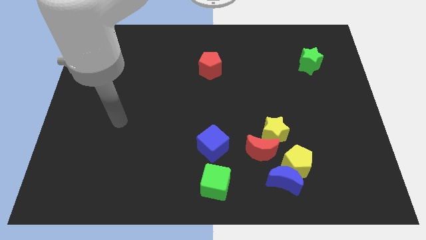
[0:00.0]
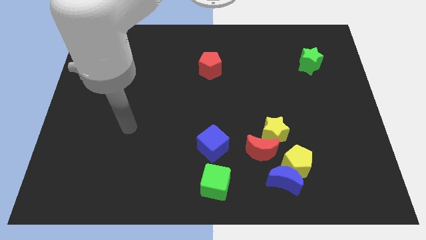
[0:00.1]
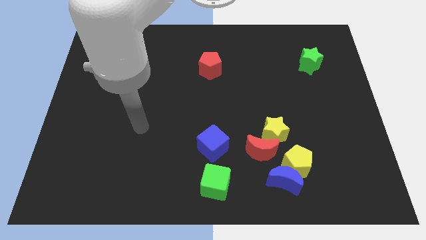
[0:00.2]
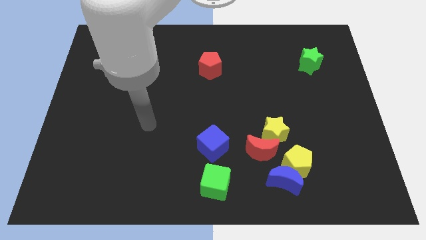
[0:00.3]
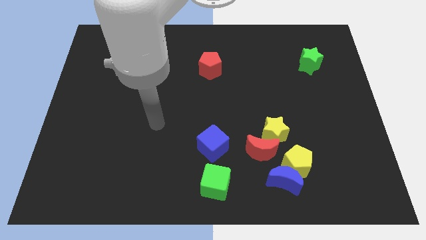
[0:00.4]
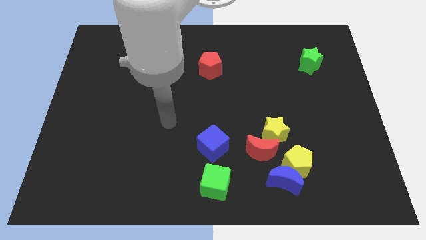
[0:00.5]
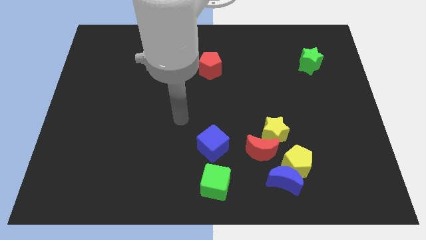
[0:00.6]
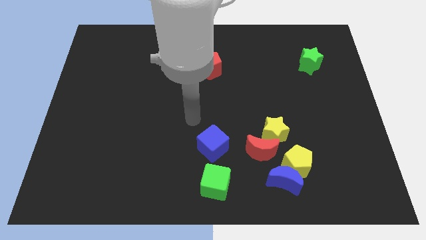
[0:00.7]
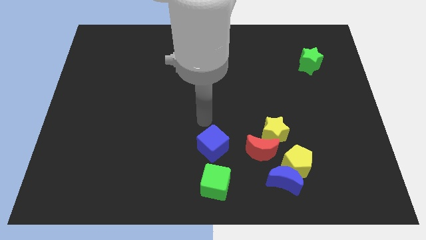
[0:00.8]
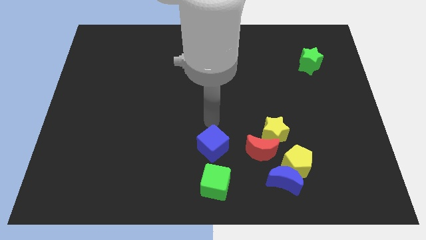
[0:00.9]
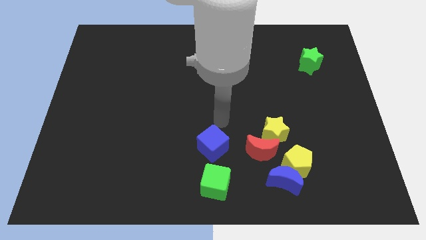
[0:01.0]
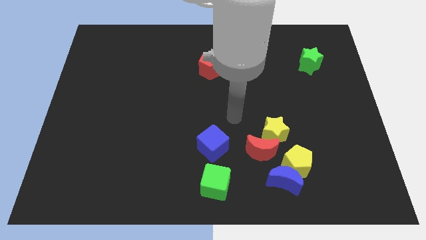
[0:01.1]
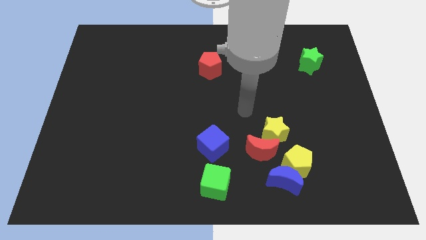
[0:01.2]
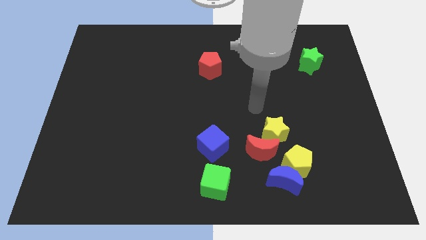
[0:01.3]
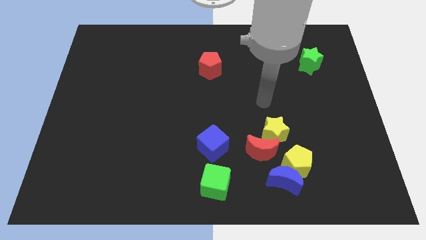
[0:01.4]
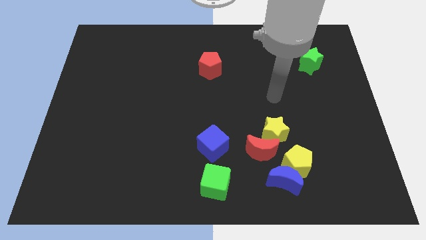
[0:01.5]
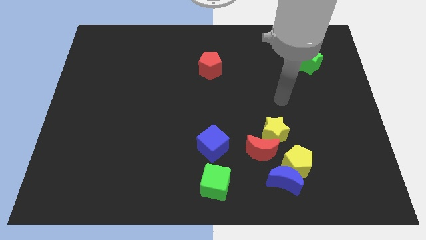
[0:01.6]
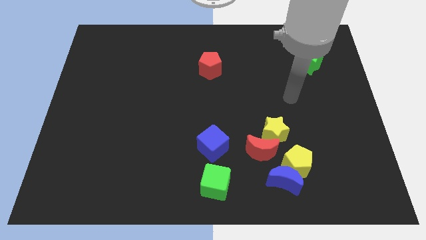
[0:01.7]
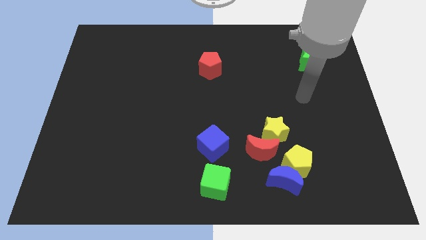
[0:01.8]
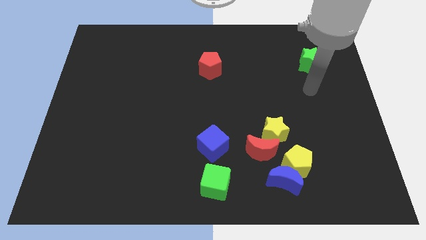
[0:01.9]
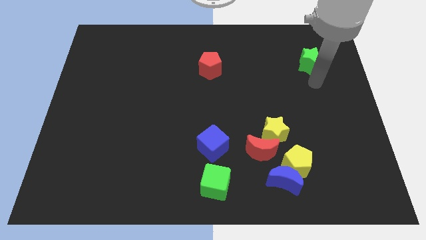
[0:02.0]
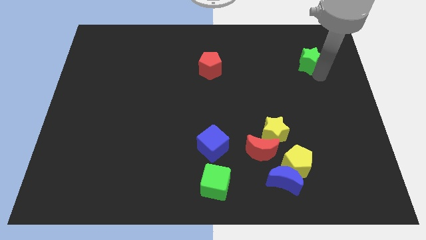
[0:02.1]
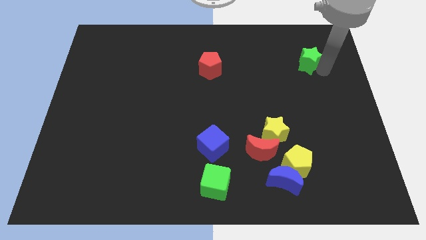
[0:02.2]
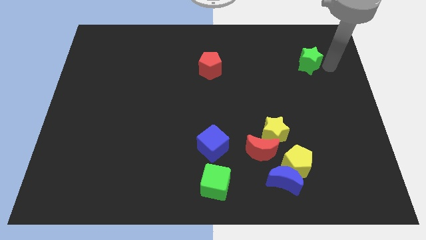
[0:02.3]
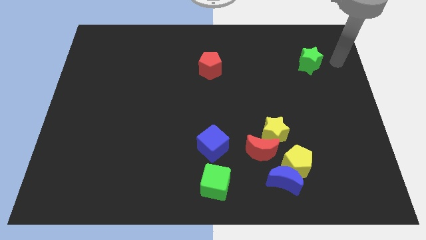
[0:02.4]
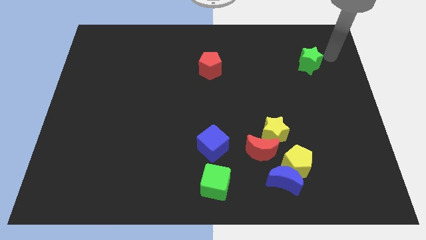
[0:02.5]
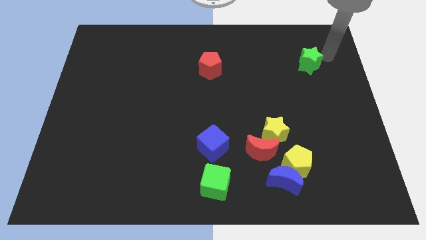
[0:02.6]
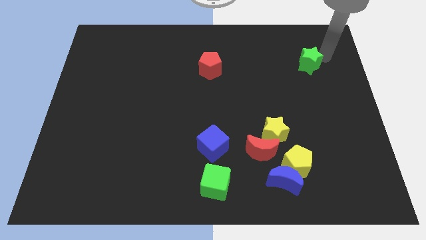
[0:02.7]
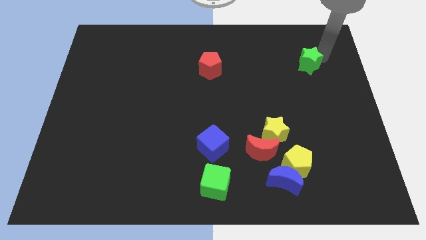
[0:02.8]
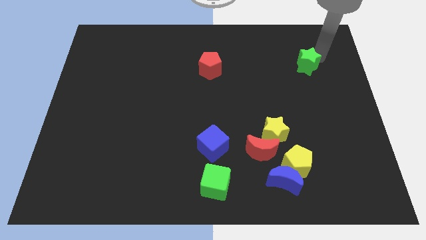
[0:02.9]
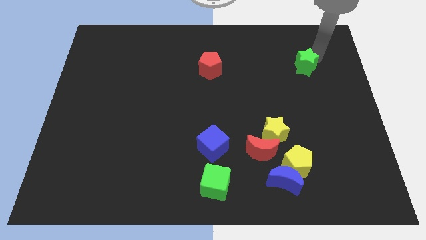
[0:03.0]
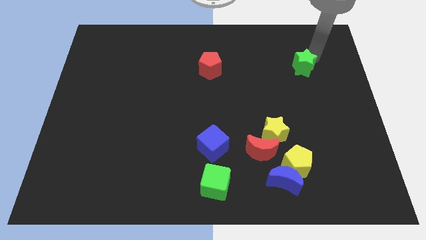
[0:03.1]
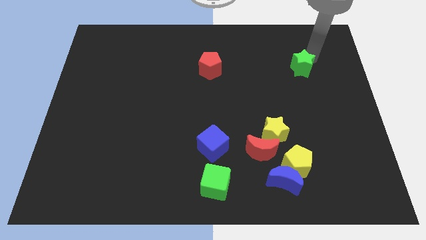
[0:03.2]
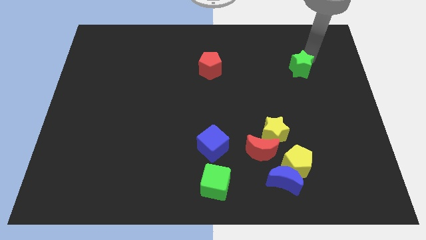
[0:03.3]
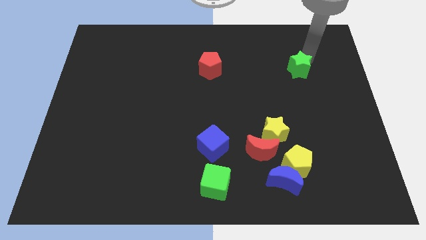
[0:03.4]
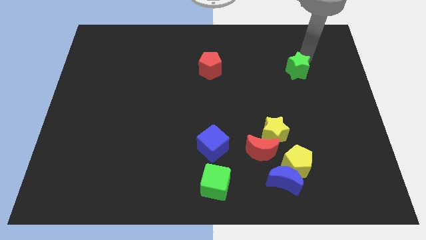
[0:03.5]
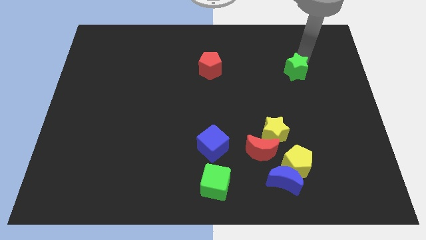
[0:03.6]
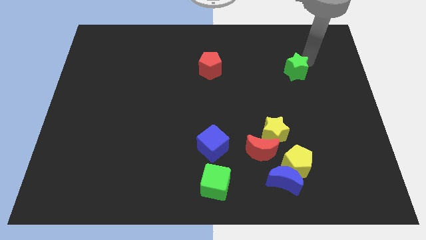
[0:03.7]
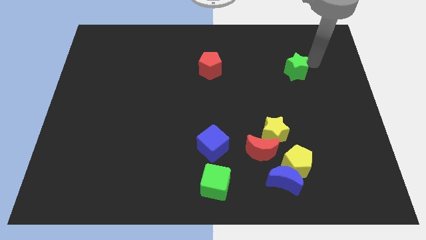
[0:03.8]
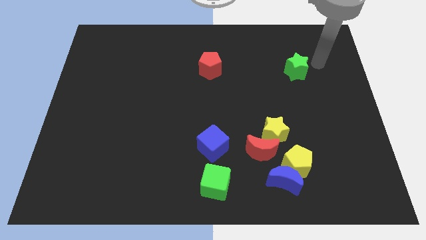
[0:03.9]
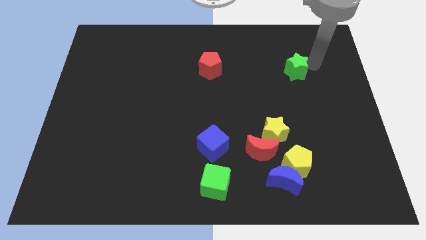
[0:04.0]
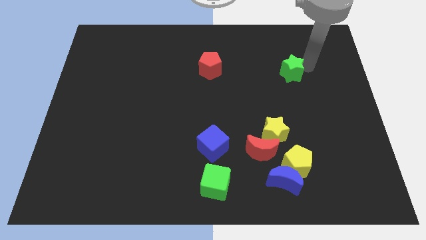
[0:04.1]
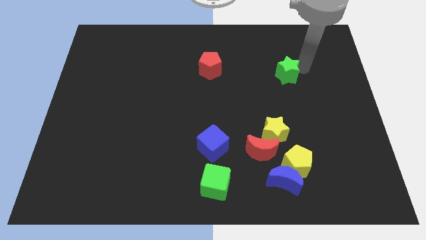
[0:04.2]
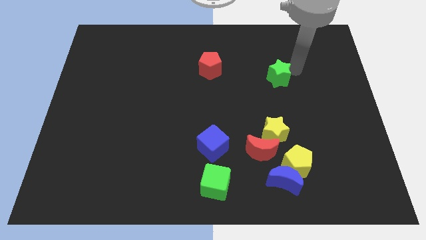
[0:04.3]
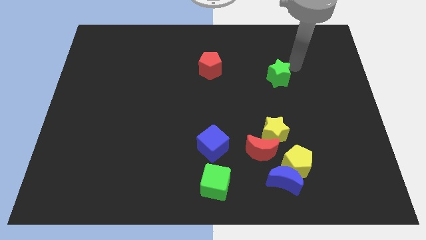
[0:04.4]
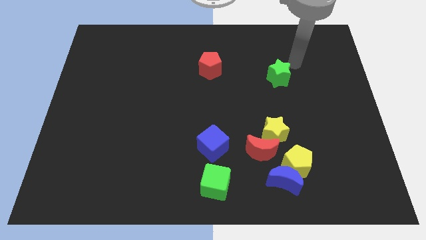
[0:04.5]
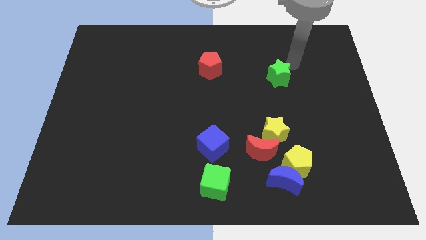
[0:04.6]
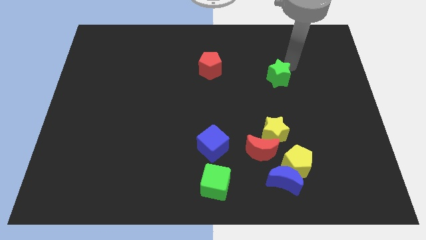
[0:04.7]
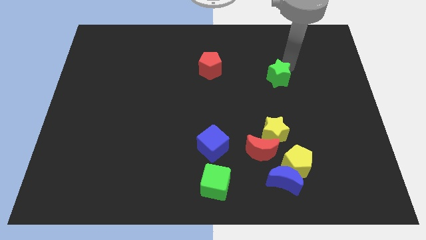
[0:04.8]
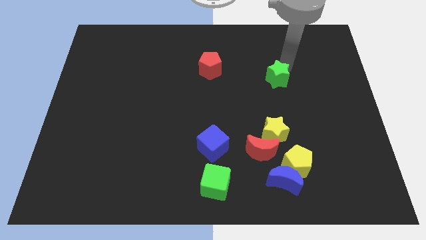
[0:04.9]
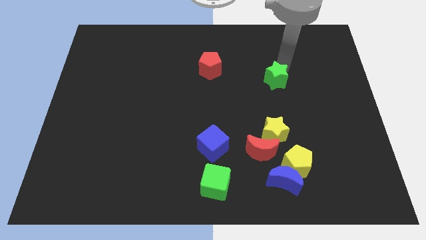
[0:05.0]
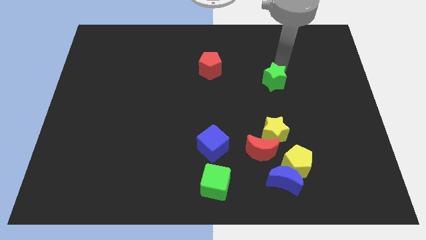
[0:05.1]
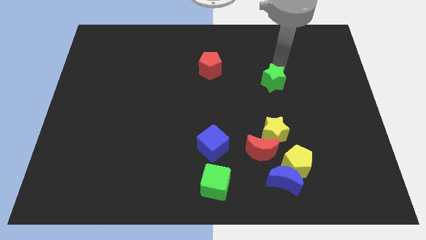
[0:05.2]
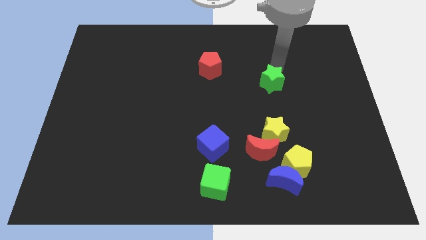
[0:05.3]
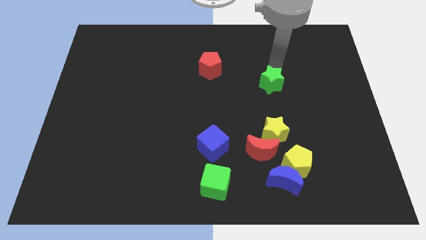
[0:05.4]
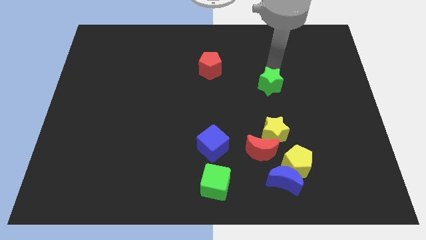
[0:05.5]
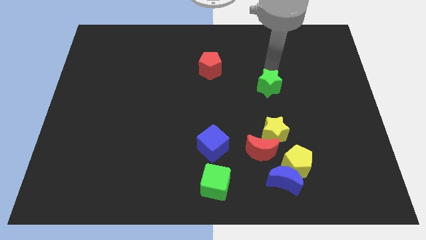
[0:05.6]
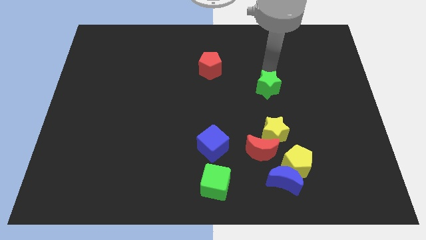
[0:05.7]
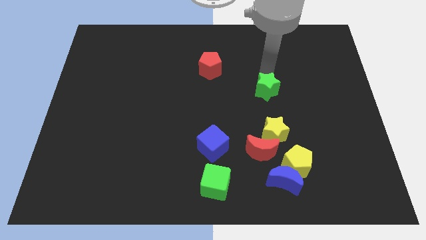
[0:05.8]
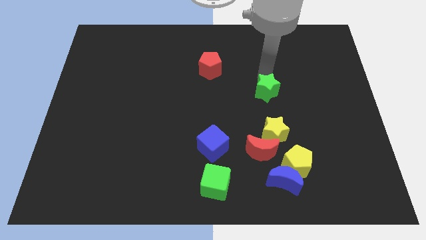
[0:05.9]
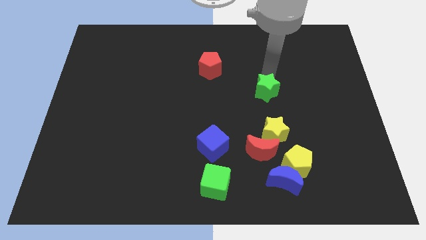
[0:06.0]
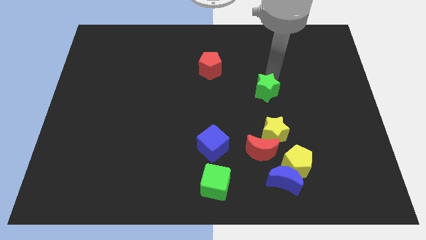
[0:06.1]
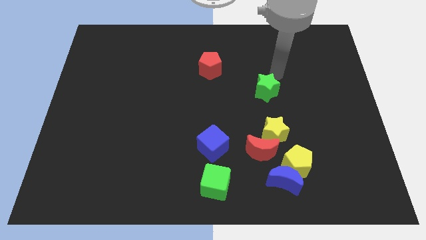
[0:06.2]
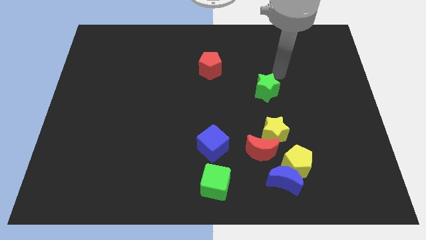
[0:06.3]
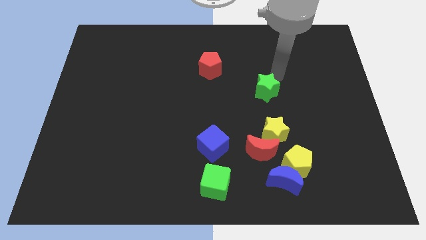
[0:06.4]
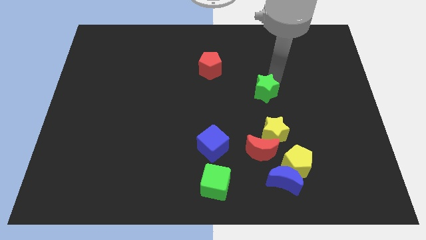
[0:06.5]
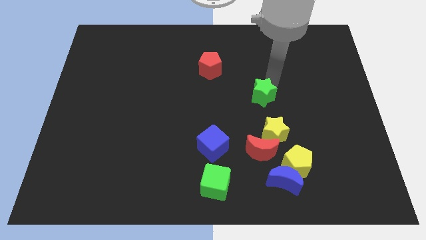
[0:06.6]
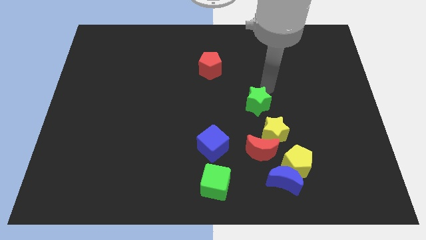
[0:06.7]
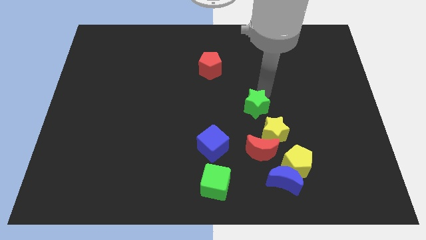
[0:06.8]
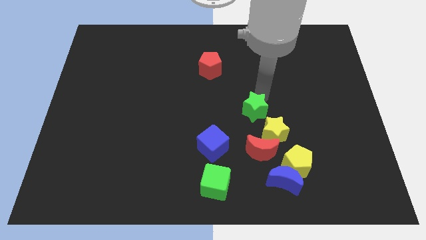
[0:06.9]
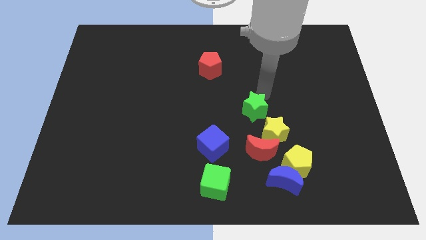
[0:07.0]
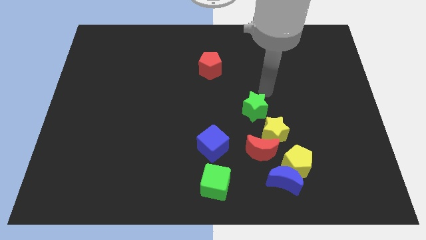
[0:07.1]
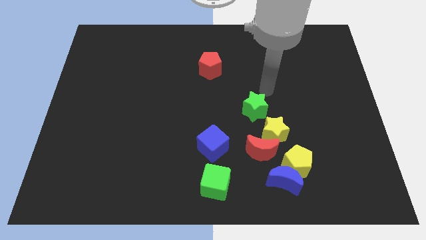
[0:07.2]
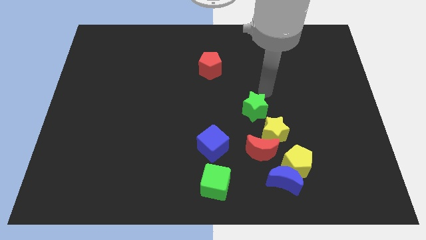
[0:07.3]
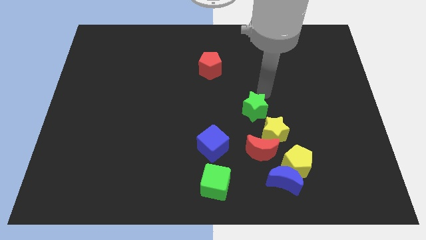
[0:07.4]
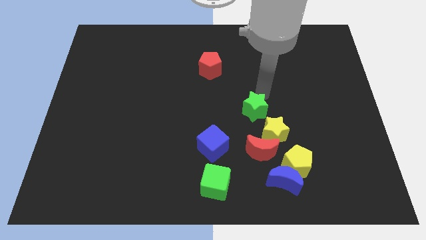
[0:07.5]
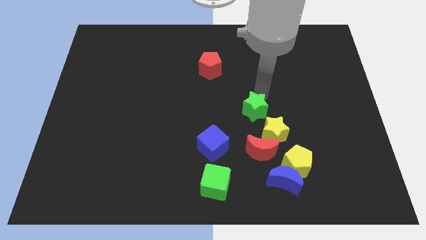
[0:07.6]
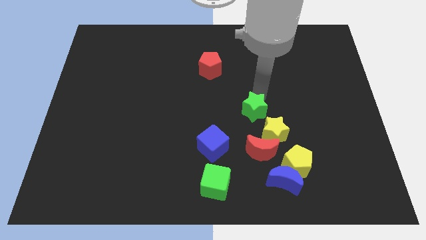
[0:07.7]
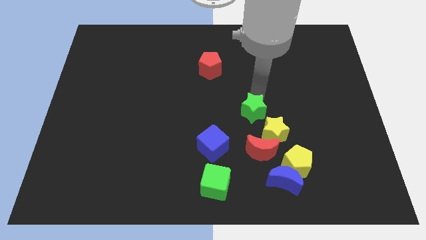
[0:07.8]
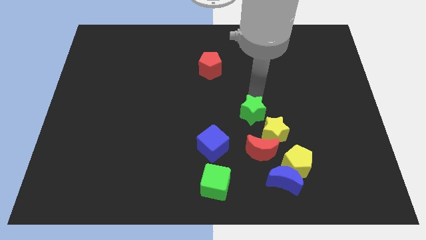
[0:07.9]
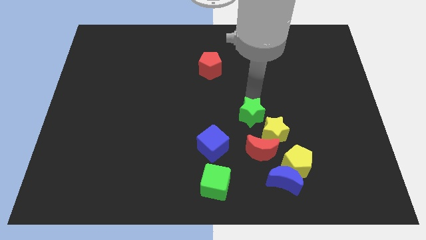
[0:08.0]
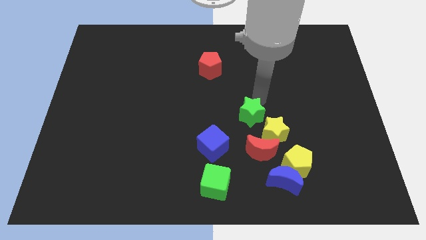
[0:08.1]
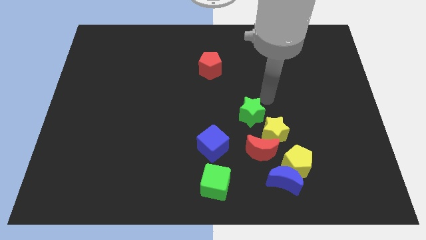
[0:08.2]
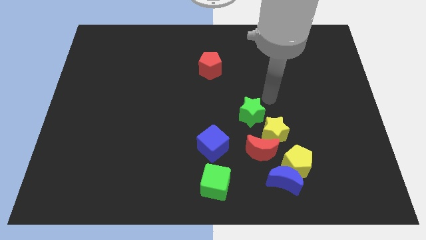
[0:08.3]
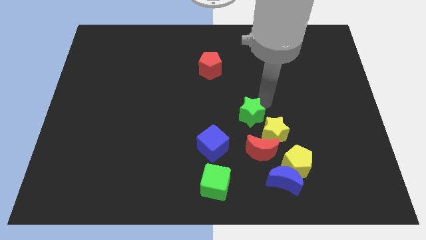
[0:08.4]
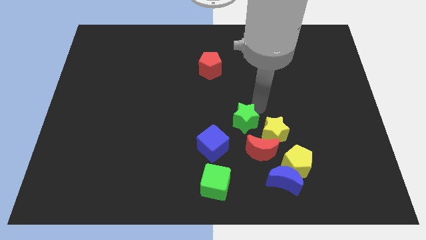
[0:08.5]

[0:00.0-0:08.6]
put the green star just left of the yellow star
